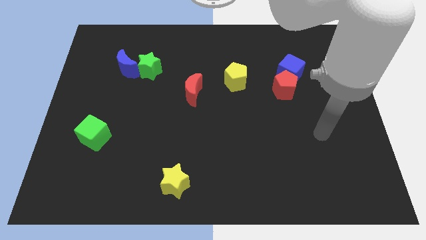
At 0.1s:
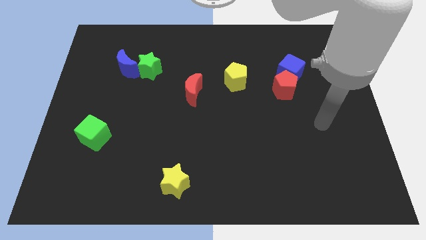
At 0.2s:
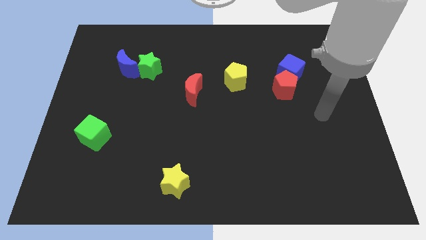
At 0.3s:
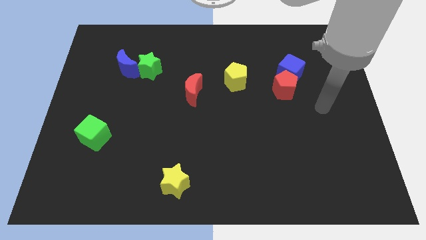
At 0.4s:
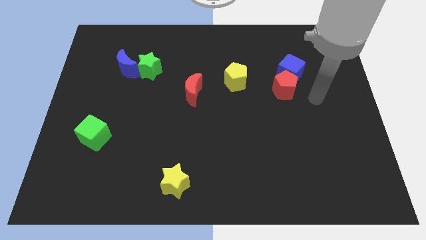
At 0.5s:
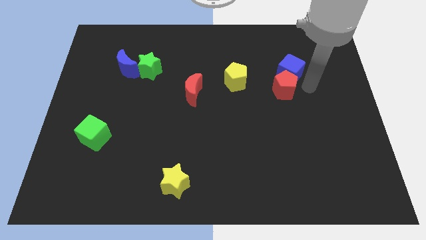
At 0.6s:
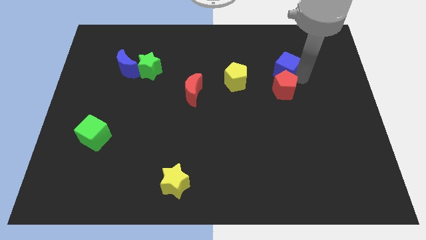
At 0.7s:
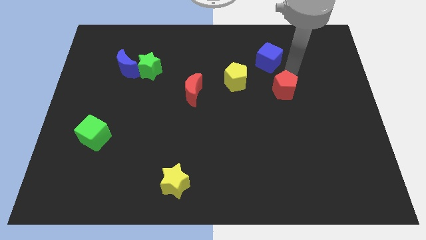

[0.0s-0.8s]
separate the red pentagon from the blue cube

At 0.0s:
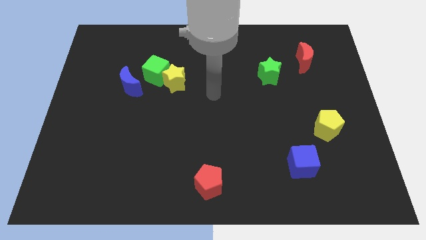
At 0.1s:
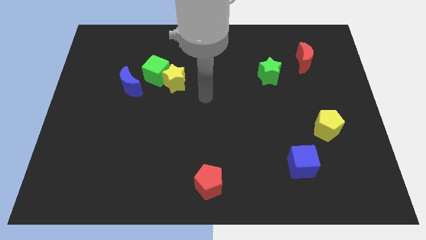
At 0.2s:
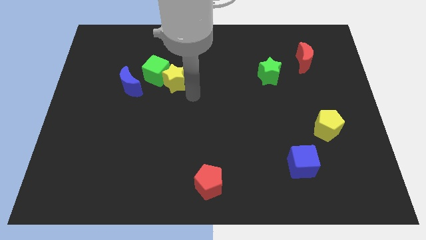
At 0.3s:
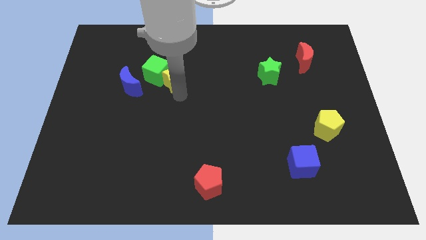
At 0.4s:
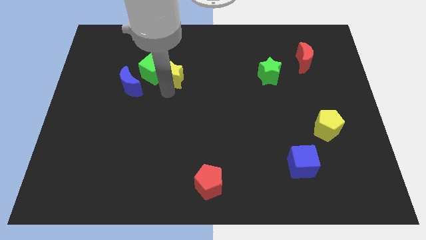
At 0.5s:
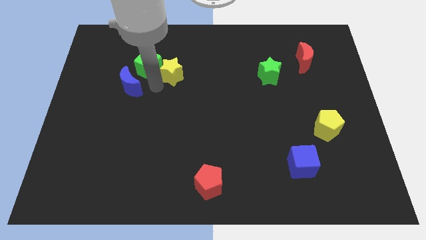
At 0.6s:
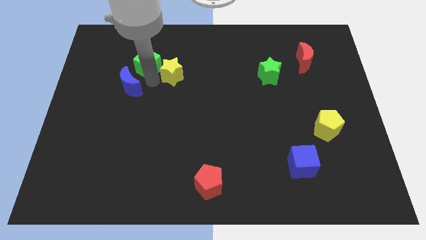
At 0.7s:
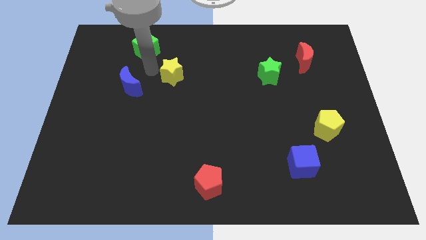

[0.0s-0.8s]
pull the yellow star apart from the green cube

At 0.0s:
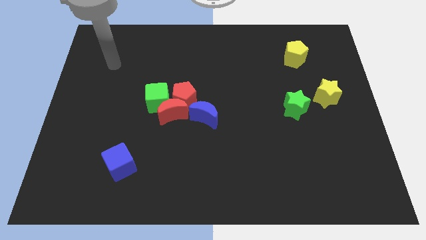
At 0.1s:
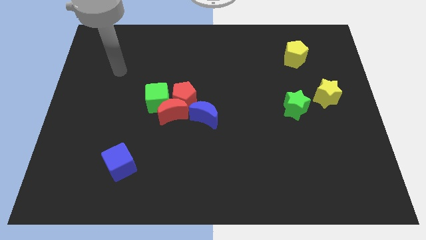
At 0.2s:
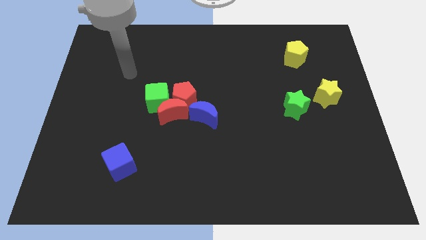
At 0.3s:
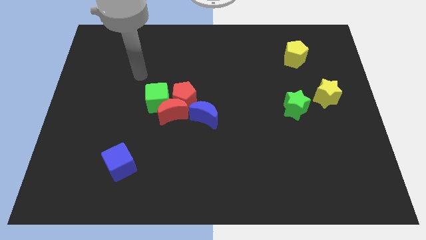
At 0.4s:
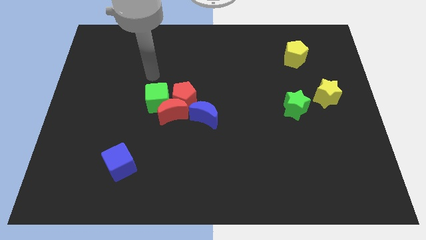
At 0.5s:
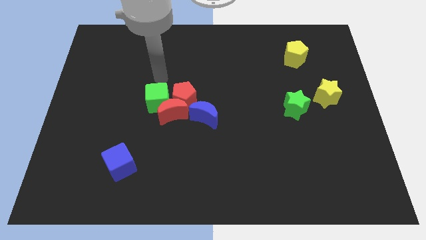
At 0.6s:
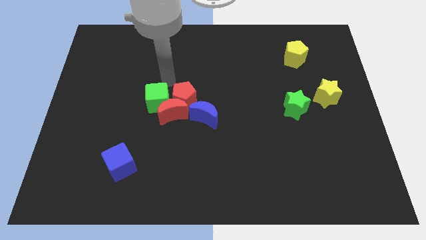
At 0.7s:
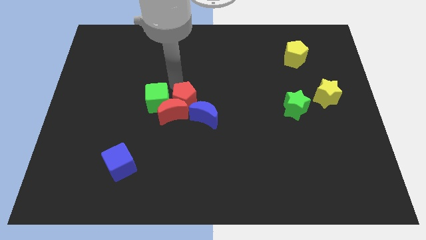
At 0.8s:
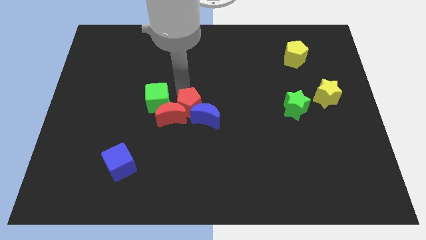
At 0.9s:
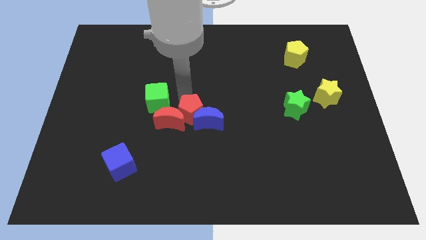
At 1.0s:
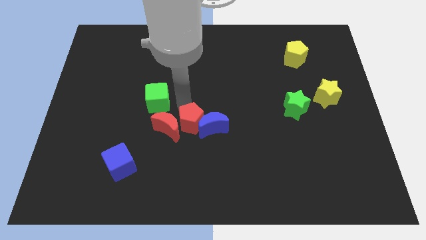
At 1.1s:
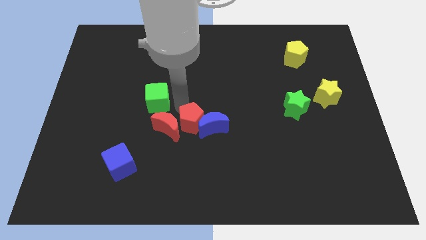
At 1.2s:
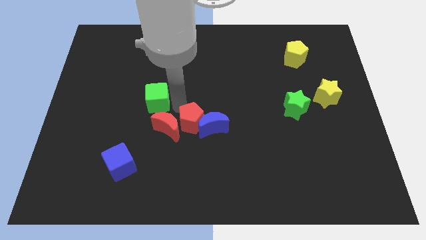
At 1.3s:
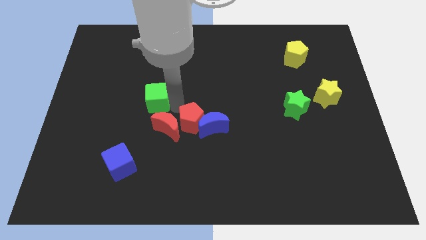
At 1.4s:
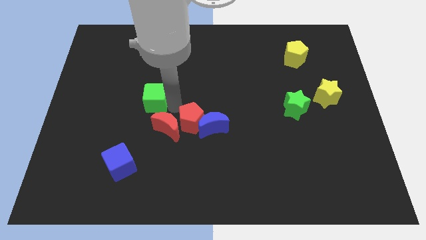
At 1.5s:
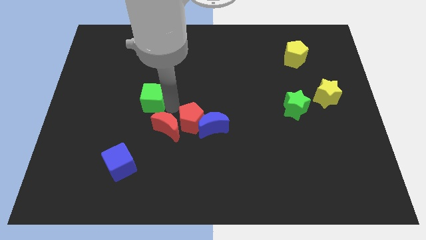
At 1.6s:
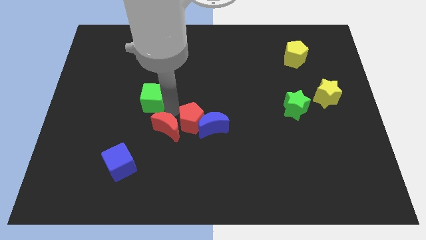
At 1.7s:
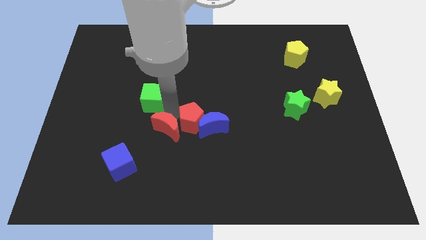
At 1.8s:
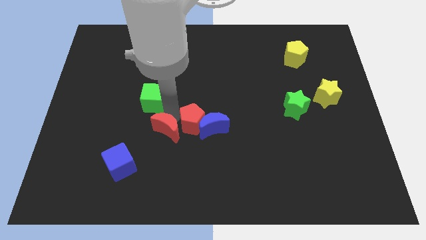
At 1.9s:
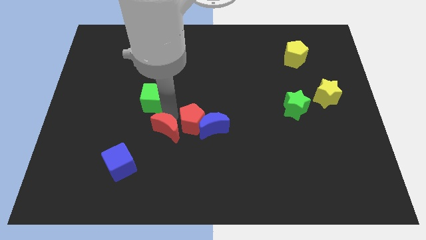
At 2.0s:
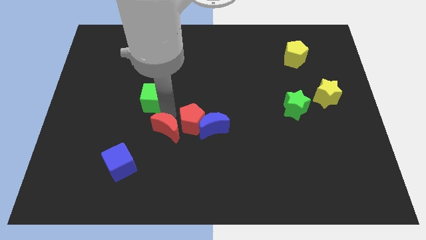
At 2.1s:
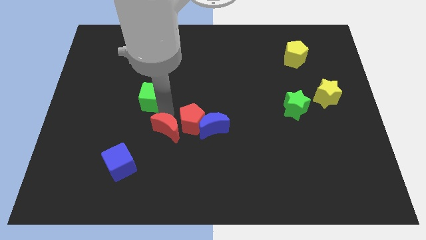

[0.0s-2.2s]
pull the green cube apart from the red moon and red pentagon

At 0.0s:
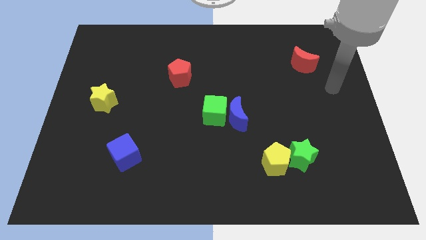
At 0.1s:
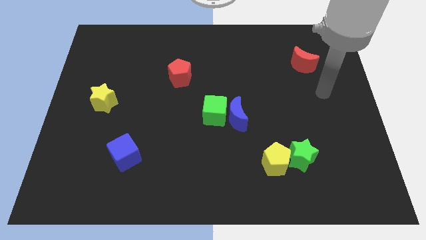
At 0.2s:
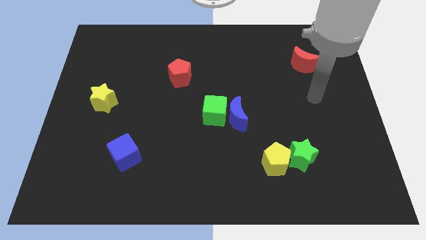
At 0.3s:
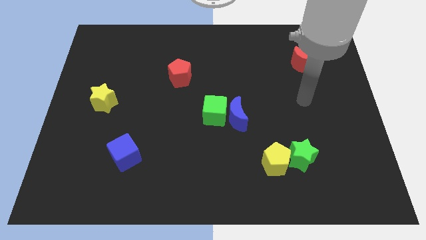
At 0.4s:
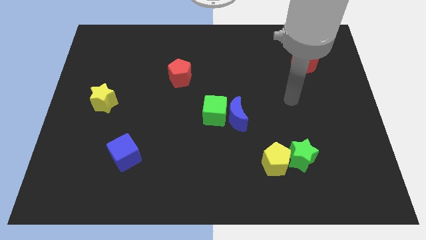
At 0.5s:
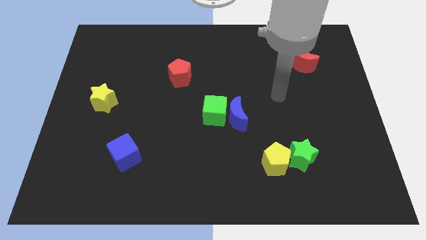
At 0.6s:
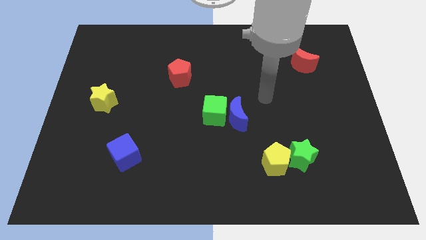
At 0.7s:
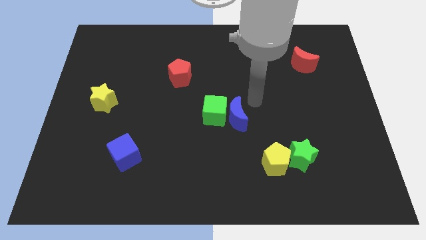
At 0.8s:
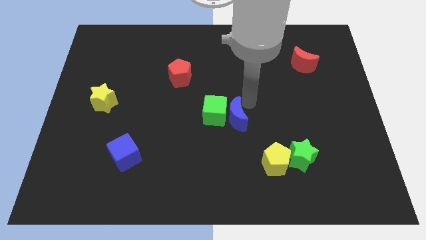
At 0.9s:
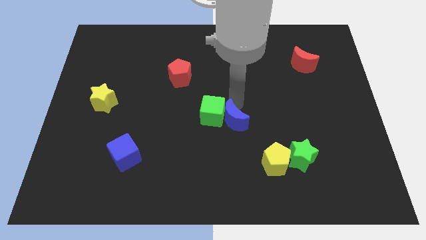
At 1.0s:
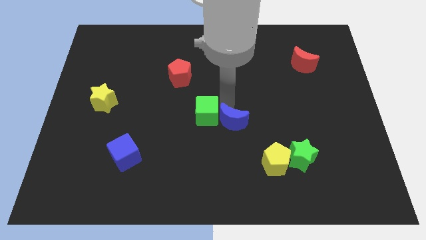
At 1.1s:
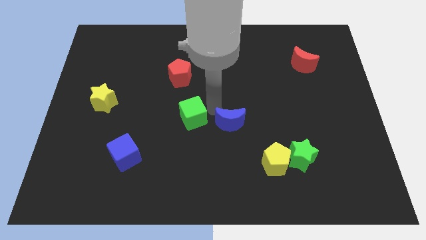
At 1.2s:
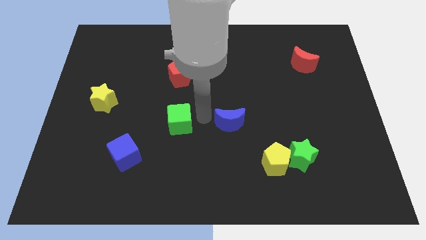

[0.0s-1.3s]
separate the blue moon from the green cube

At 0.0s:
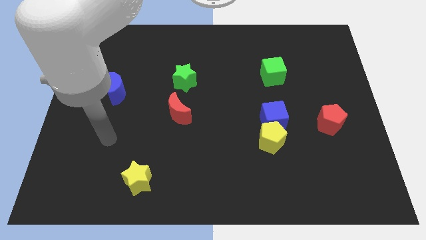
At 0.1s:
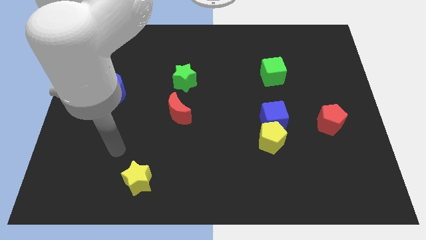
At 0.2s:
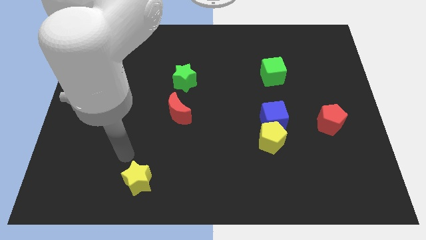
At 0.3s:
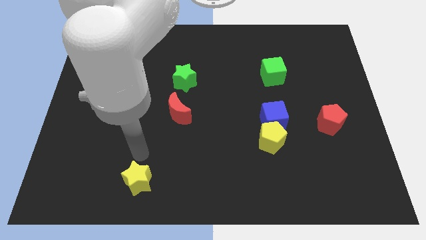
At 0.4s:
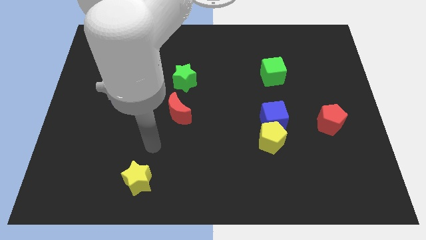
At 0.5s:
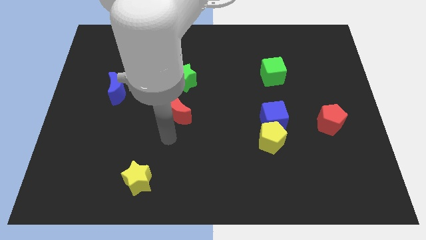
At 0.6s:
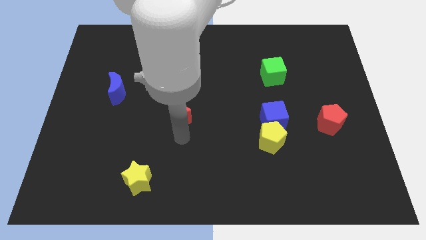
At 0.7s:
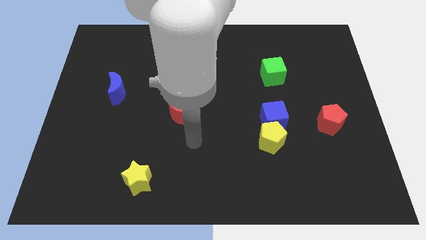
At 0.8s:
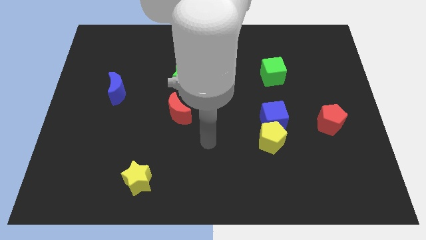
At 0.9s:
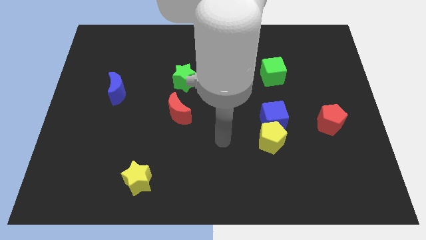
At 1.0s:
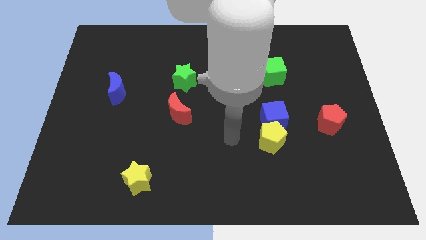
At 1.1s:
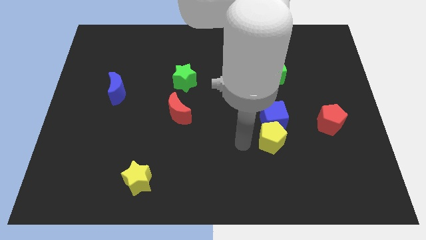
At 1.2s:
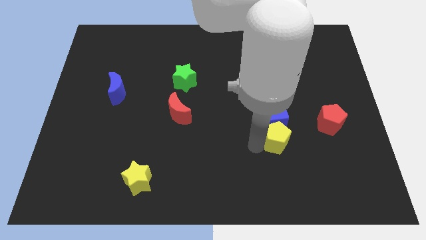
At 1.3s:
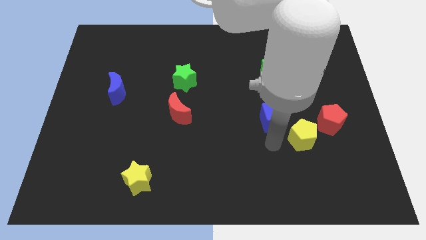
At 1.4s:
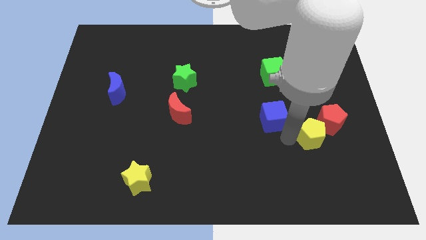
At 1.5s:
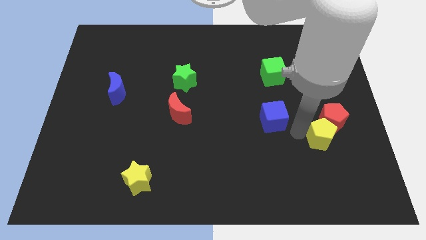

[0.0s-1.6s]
separate the blue cube from the yellow pentagon

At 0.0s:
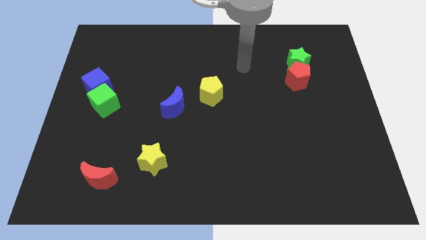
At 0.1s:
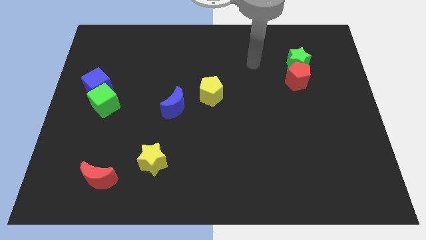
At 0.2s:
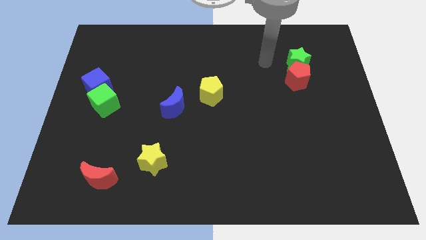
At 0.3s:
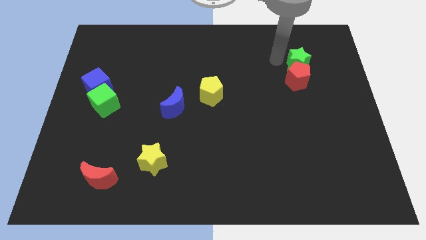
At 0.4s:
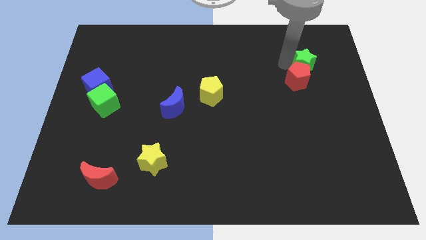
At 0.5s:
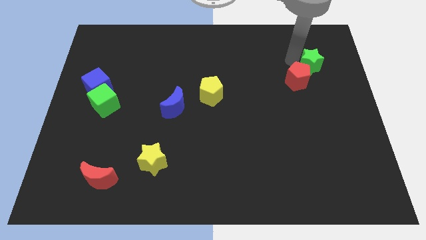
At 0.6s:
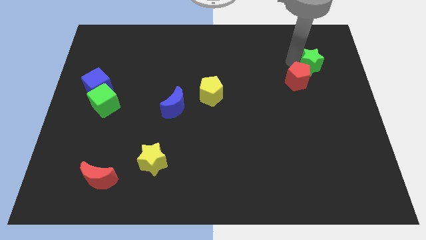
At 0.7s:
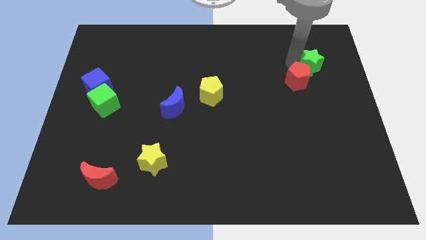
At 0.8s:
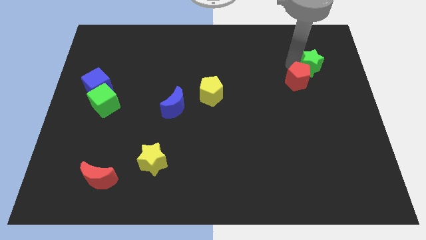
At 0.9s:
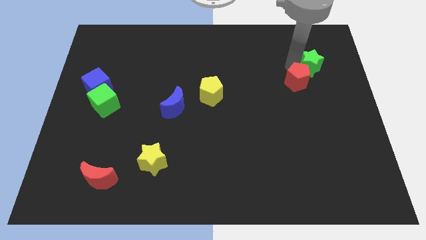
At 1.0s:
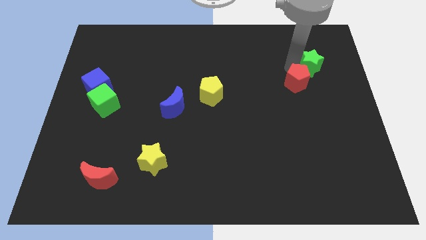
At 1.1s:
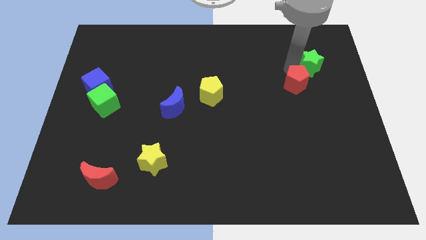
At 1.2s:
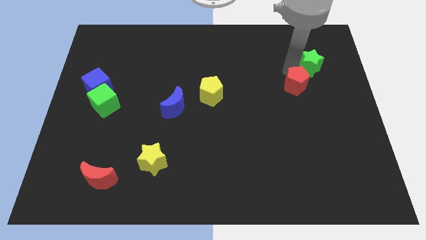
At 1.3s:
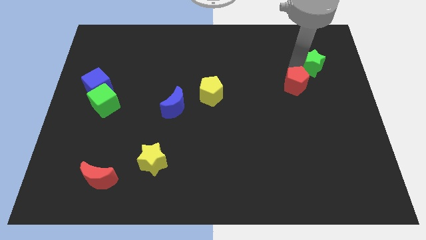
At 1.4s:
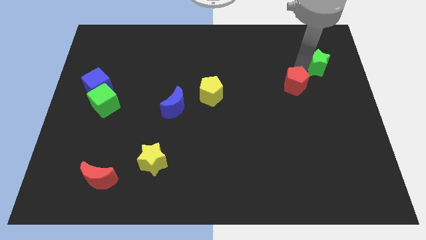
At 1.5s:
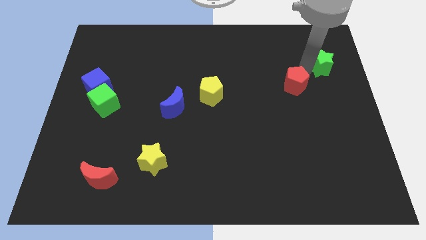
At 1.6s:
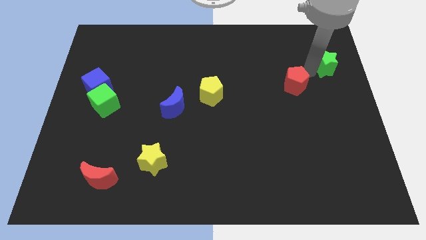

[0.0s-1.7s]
separate the red pentagon from the green star

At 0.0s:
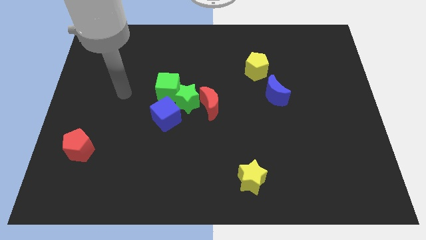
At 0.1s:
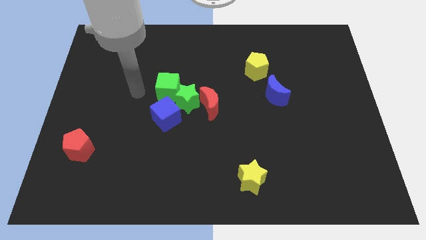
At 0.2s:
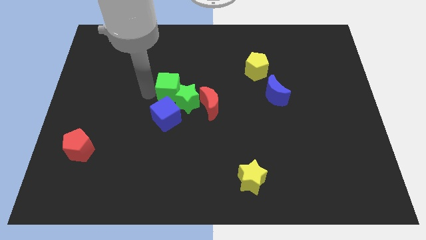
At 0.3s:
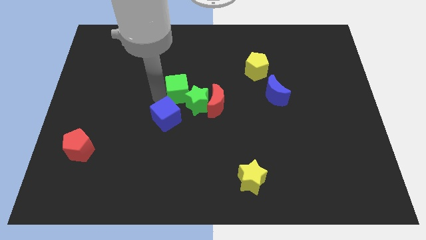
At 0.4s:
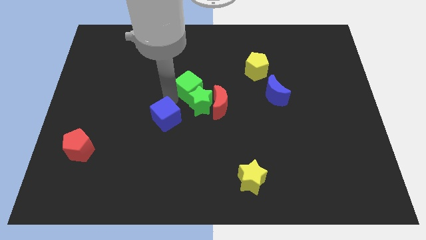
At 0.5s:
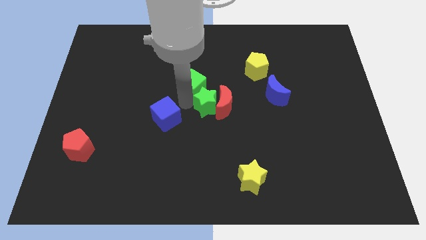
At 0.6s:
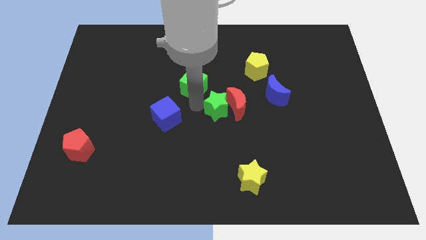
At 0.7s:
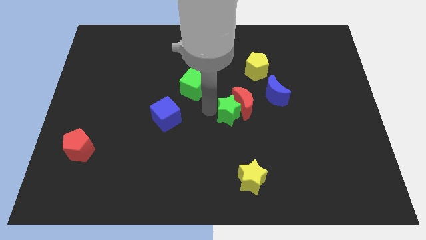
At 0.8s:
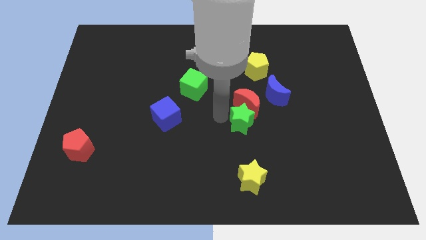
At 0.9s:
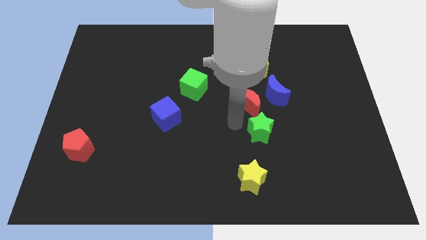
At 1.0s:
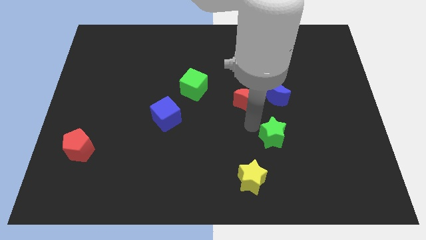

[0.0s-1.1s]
separate the red moon from the green star
